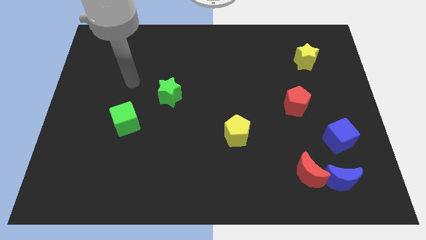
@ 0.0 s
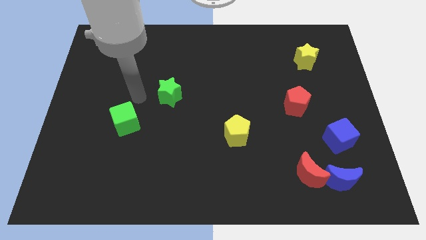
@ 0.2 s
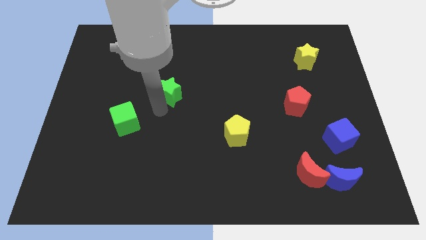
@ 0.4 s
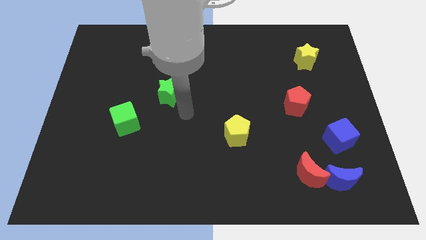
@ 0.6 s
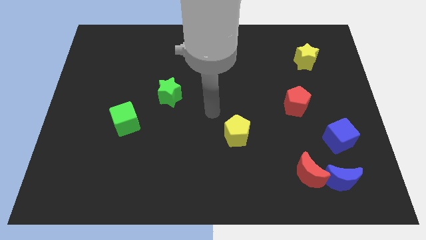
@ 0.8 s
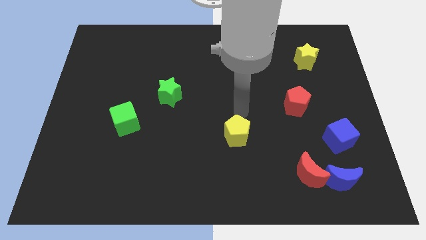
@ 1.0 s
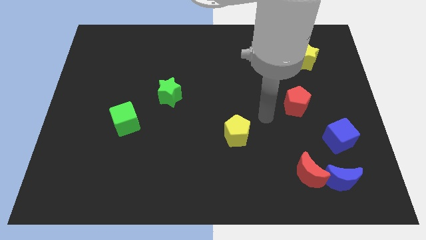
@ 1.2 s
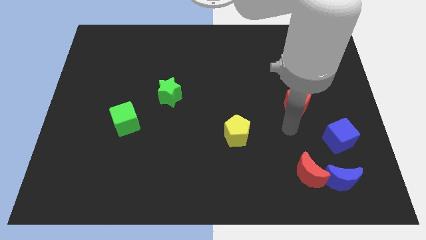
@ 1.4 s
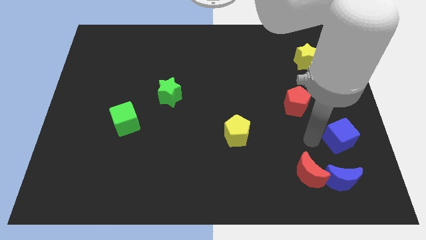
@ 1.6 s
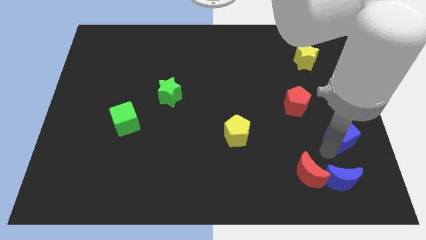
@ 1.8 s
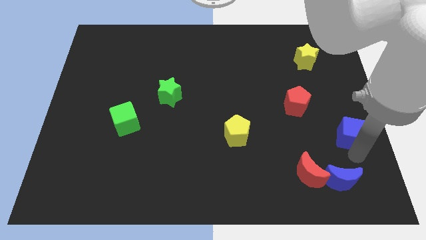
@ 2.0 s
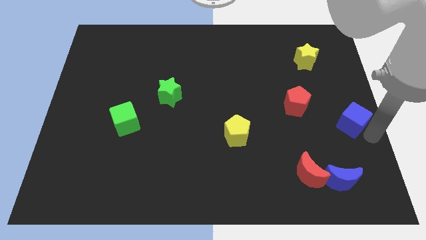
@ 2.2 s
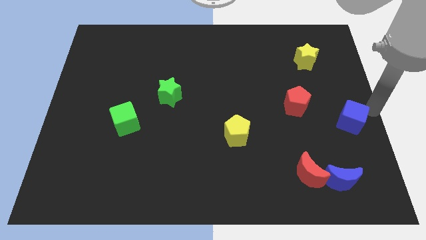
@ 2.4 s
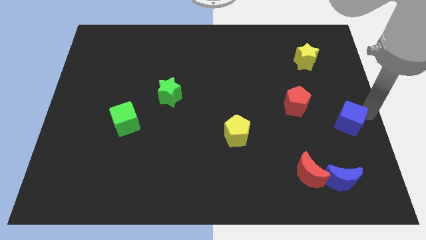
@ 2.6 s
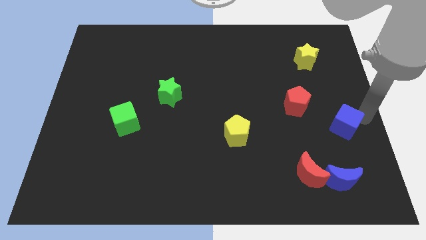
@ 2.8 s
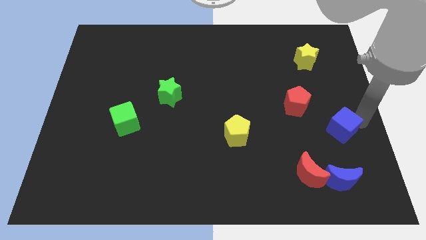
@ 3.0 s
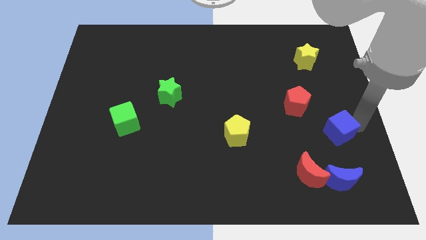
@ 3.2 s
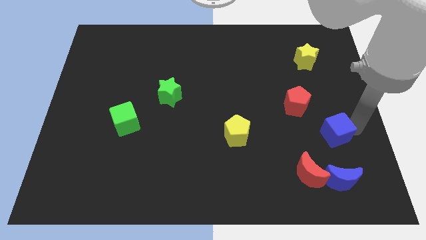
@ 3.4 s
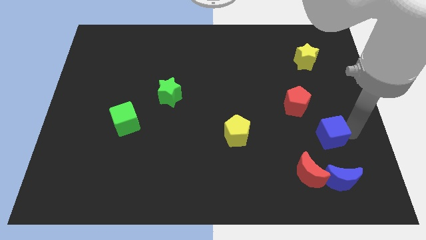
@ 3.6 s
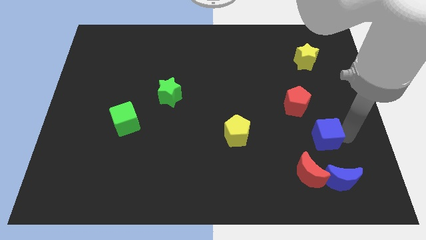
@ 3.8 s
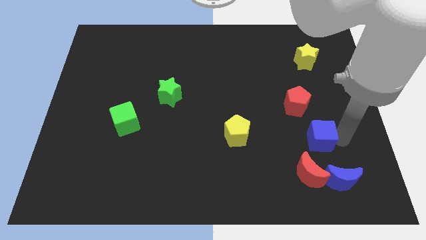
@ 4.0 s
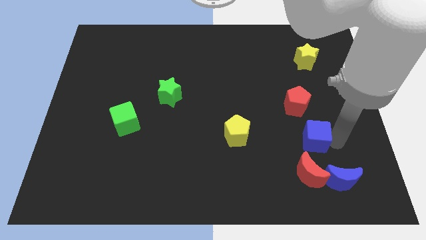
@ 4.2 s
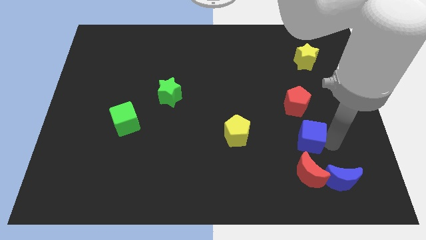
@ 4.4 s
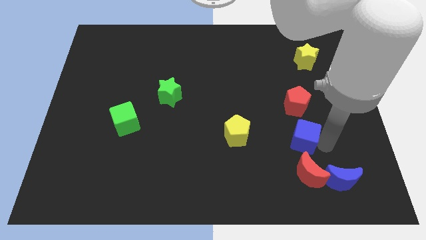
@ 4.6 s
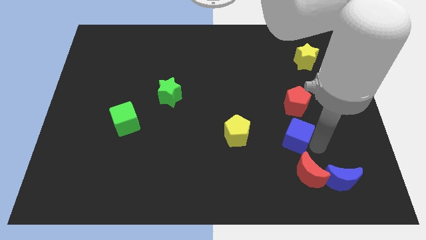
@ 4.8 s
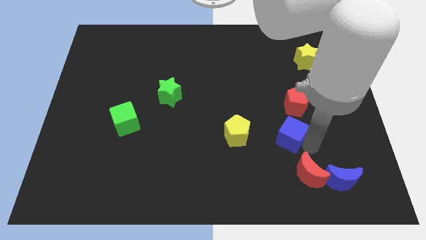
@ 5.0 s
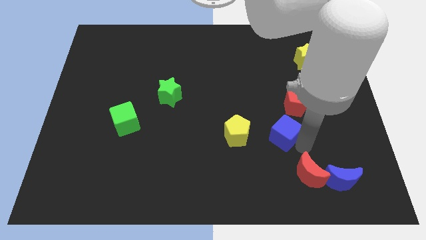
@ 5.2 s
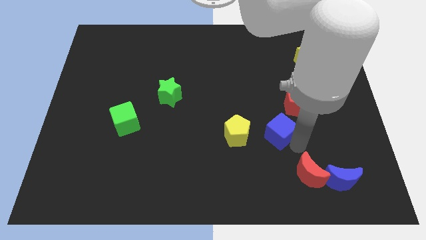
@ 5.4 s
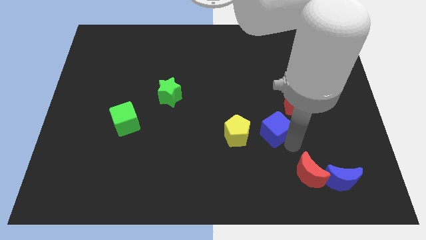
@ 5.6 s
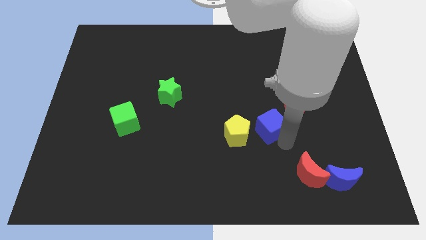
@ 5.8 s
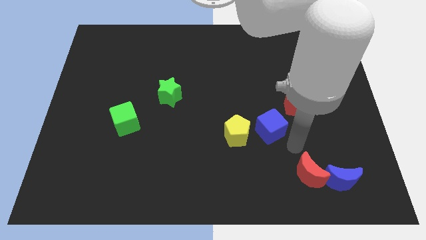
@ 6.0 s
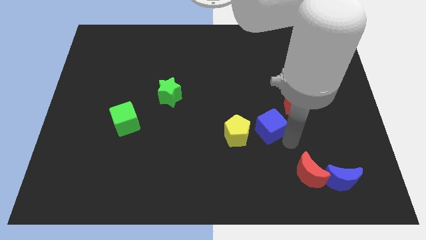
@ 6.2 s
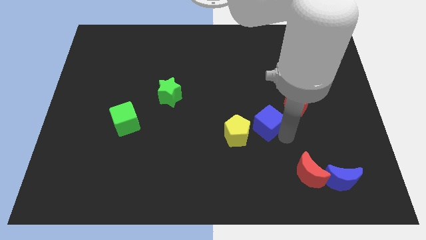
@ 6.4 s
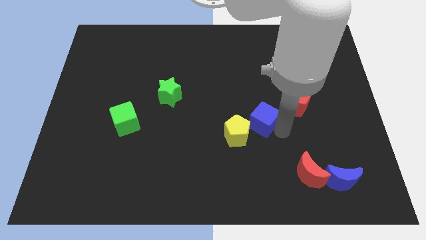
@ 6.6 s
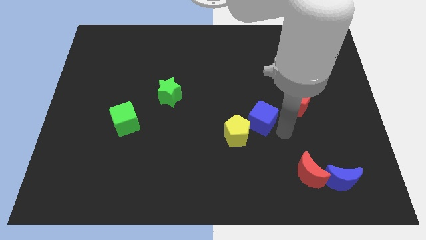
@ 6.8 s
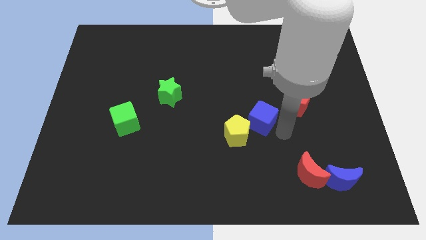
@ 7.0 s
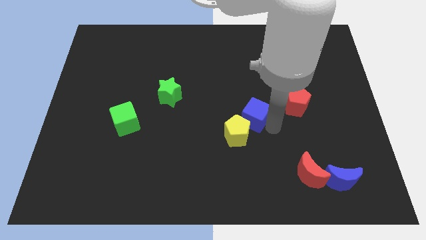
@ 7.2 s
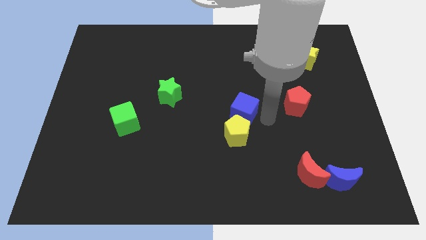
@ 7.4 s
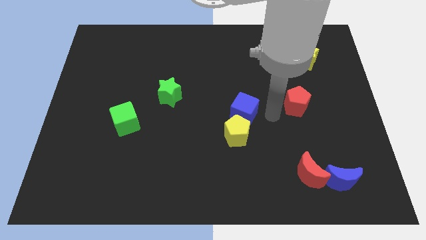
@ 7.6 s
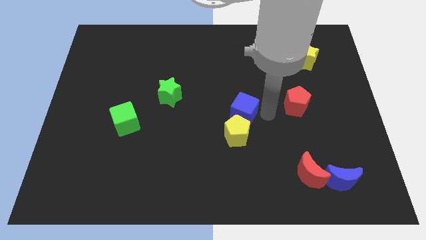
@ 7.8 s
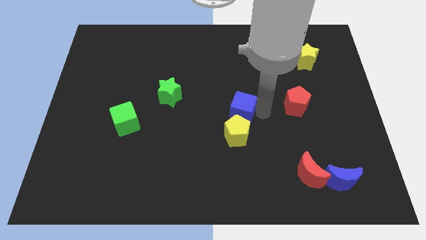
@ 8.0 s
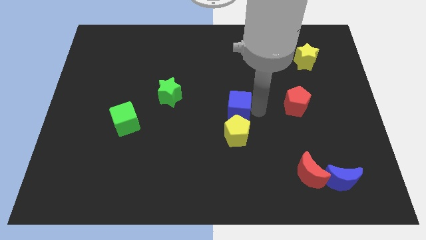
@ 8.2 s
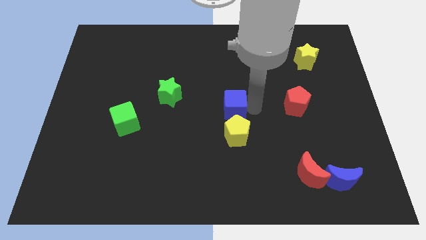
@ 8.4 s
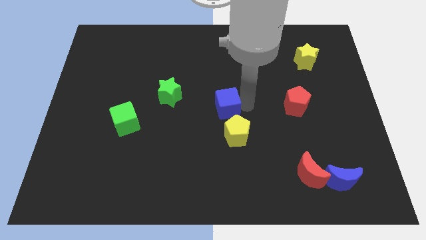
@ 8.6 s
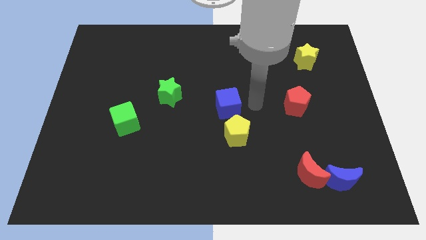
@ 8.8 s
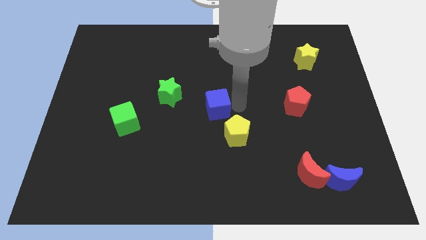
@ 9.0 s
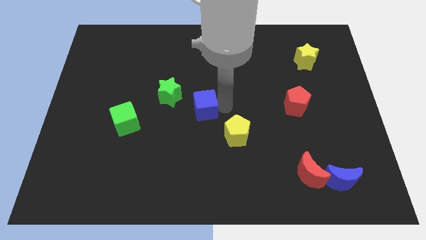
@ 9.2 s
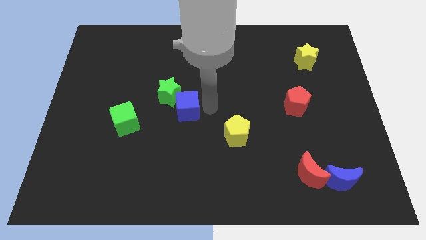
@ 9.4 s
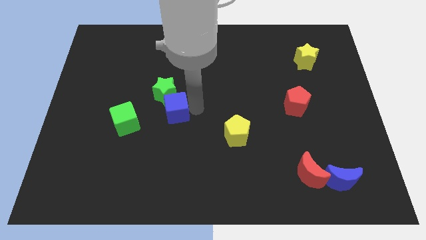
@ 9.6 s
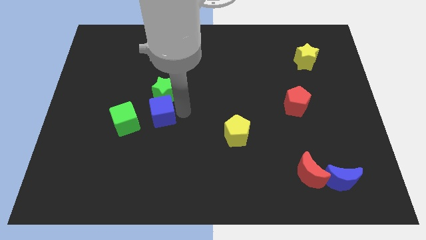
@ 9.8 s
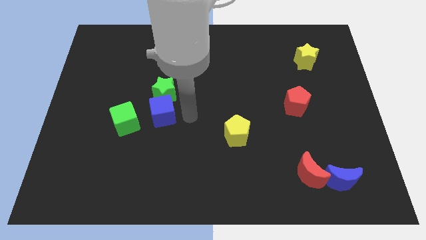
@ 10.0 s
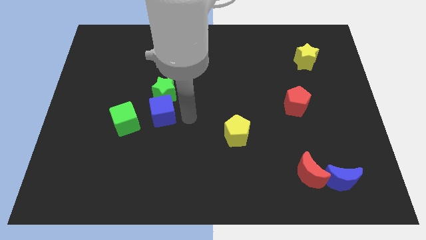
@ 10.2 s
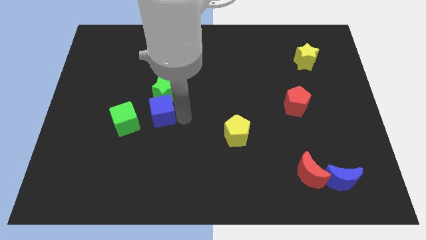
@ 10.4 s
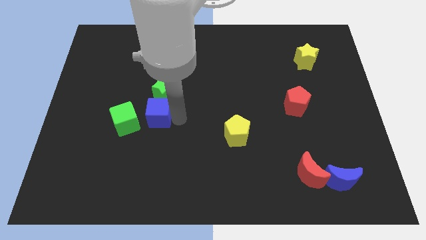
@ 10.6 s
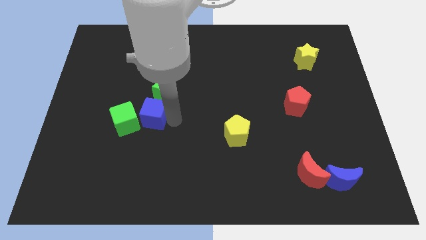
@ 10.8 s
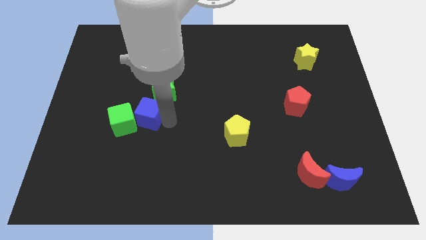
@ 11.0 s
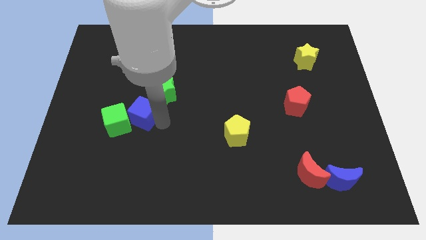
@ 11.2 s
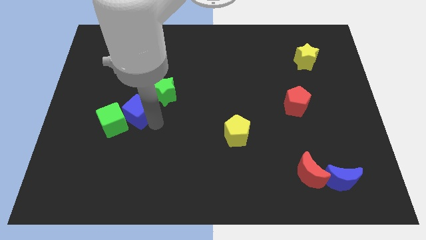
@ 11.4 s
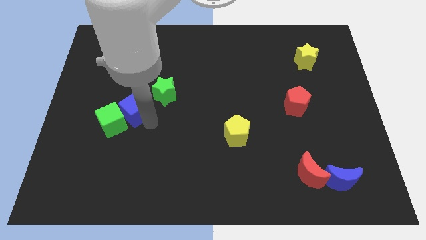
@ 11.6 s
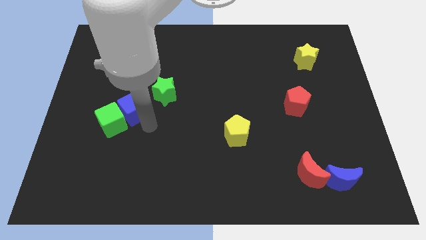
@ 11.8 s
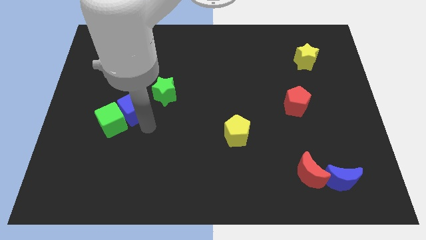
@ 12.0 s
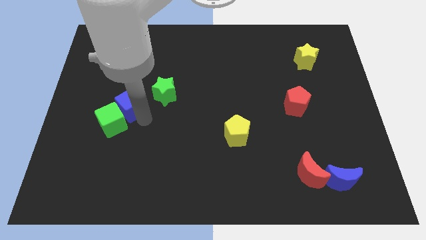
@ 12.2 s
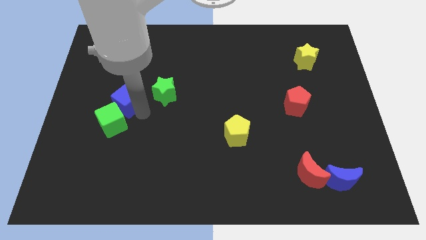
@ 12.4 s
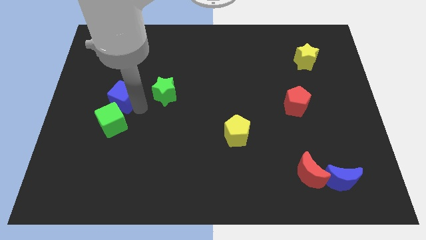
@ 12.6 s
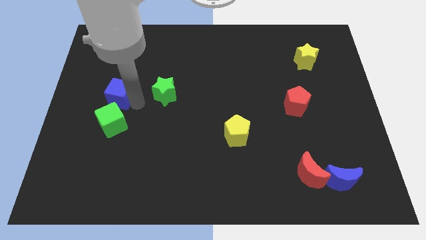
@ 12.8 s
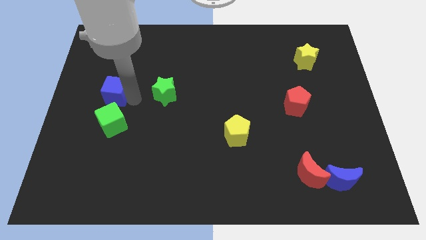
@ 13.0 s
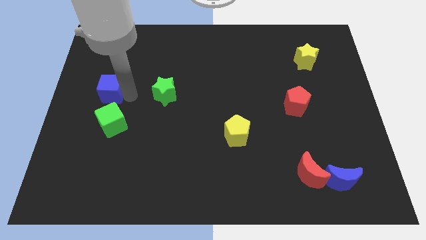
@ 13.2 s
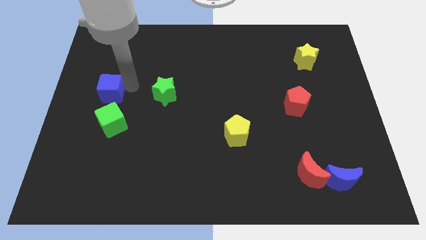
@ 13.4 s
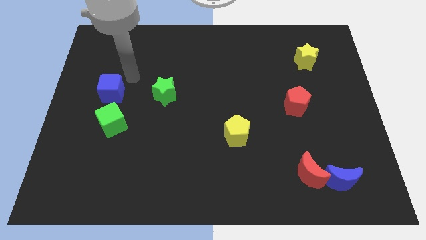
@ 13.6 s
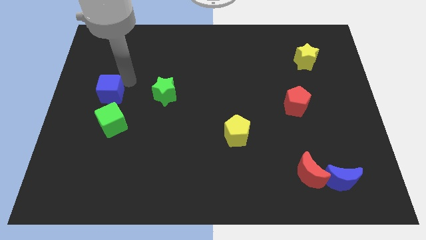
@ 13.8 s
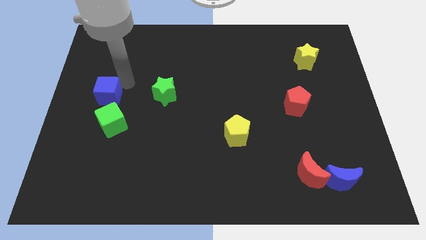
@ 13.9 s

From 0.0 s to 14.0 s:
move the blue cube to the top left side of the green cube
